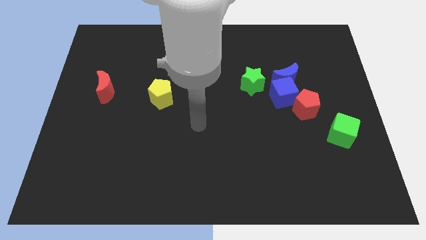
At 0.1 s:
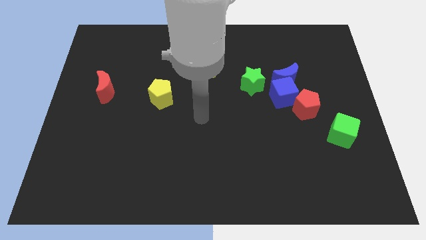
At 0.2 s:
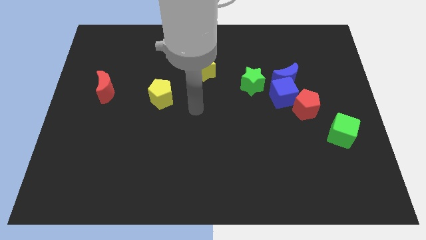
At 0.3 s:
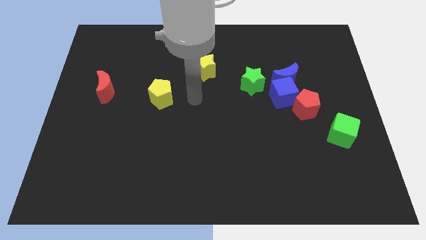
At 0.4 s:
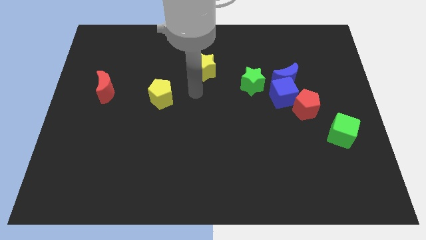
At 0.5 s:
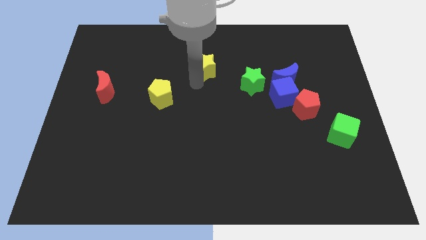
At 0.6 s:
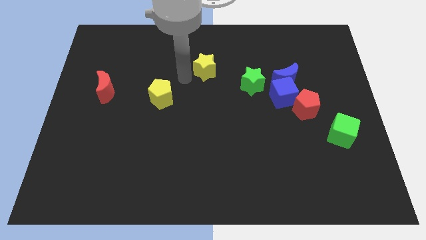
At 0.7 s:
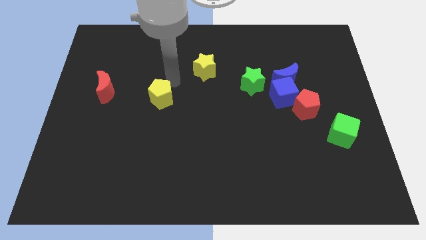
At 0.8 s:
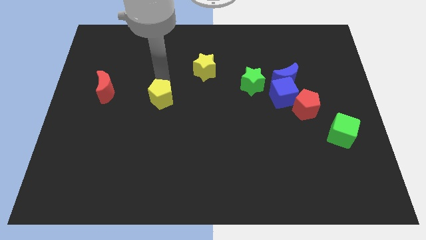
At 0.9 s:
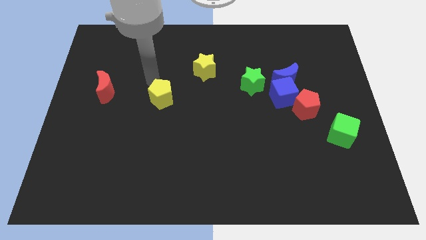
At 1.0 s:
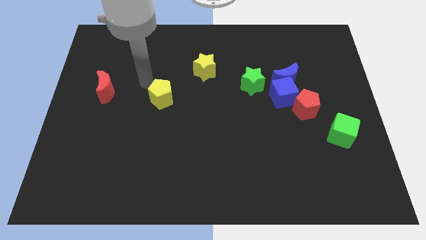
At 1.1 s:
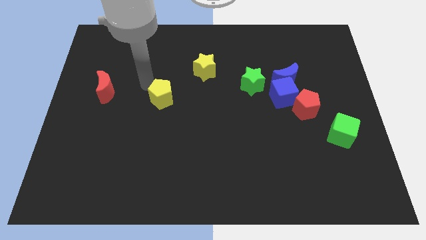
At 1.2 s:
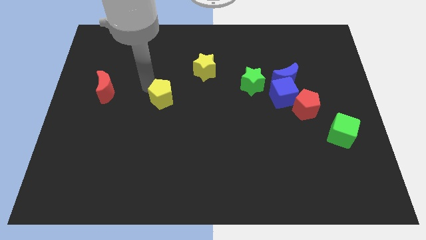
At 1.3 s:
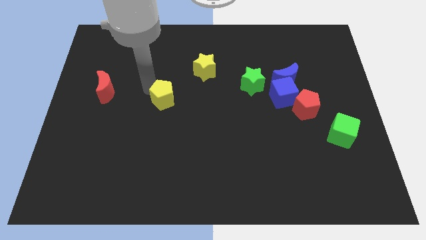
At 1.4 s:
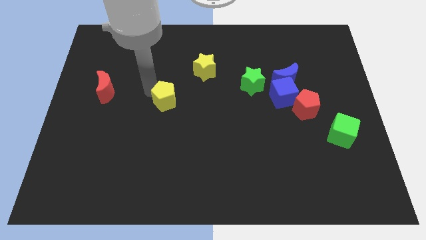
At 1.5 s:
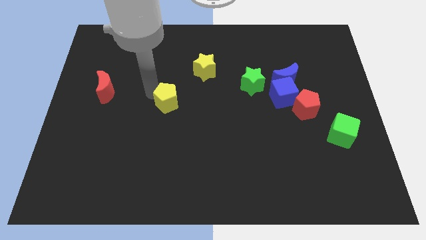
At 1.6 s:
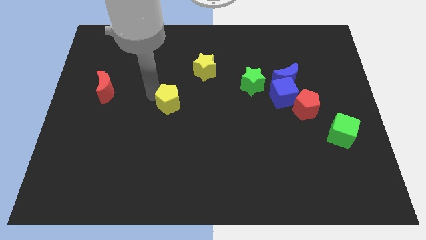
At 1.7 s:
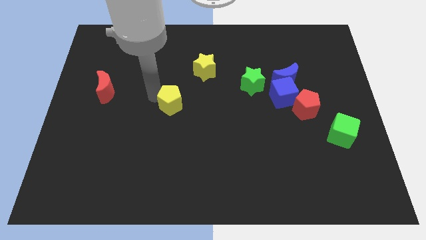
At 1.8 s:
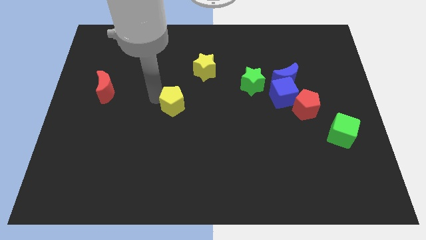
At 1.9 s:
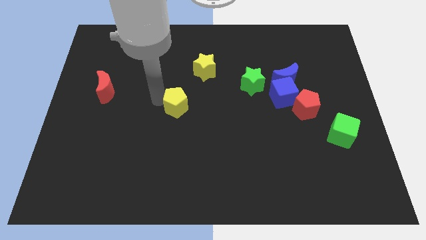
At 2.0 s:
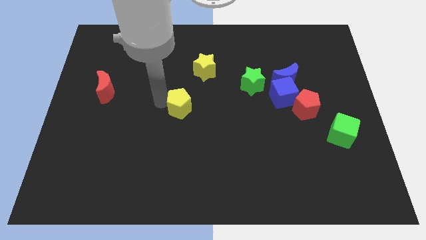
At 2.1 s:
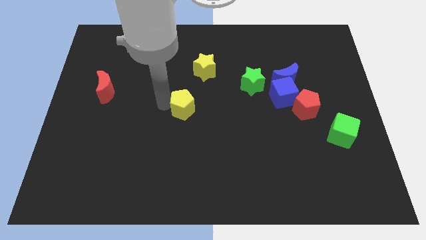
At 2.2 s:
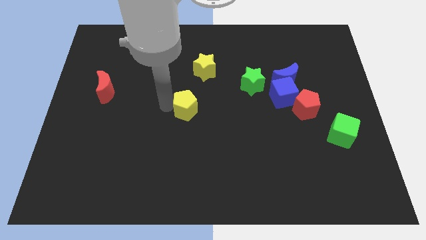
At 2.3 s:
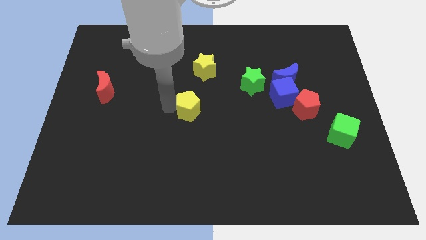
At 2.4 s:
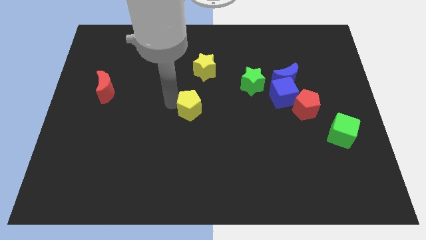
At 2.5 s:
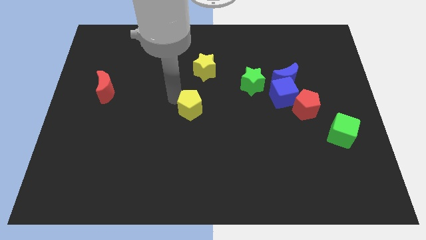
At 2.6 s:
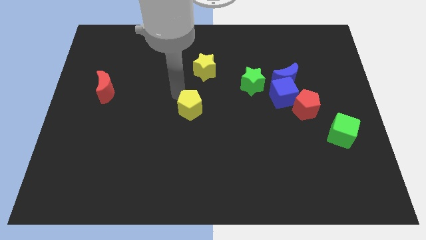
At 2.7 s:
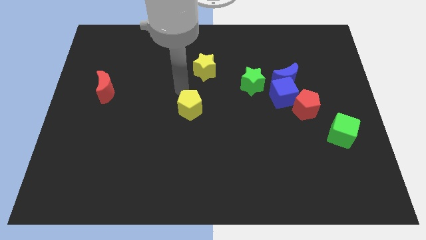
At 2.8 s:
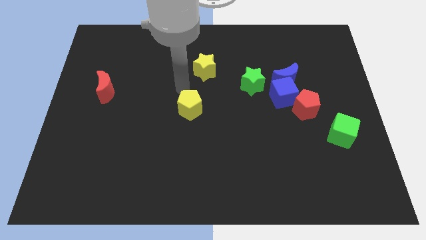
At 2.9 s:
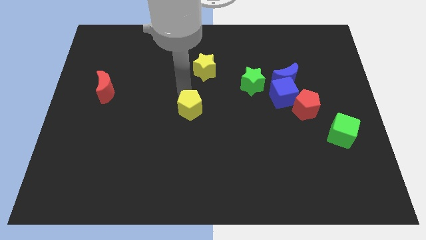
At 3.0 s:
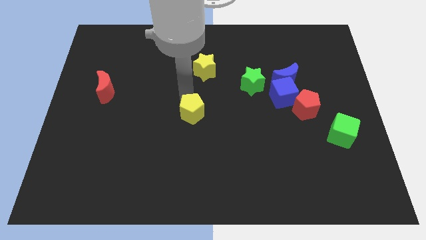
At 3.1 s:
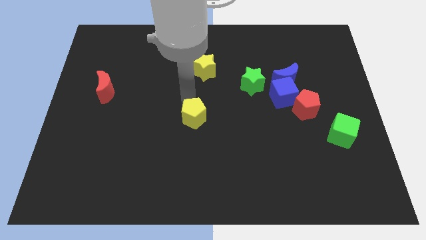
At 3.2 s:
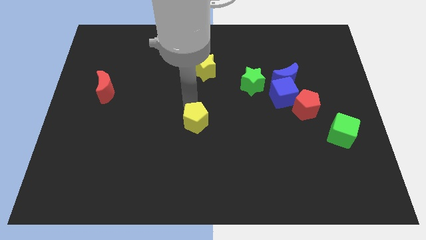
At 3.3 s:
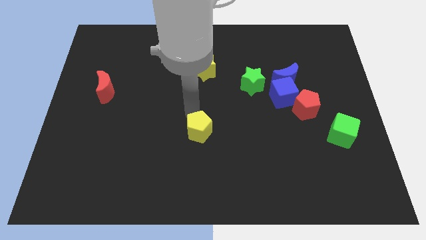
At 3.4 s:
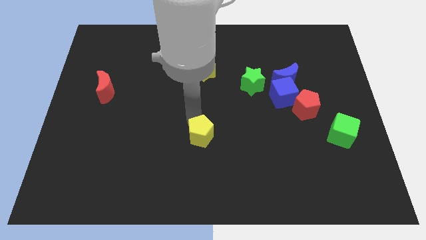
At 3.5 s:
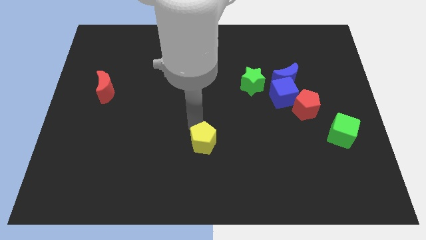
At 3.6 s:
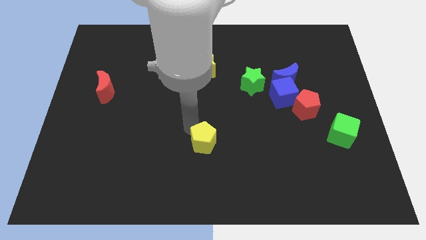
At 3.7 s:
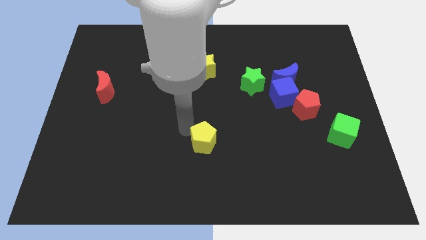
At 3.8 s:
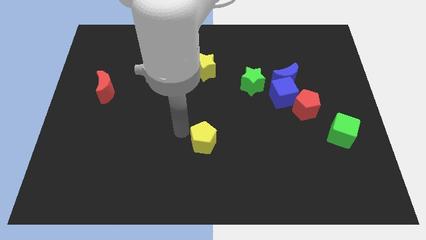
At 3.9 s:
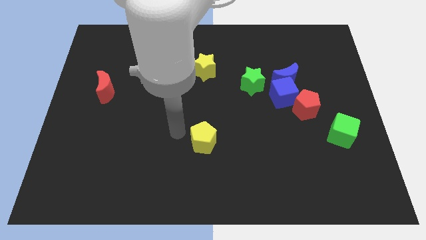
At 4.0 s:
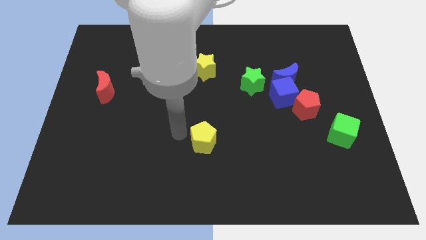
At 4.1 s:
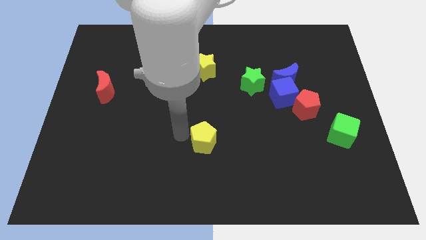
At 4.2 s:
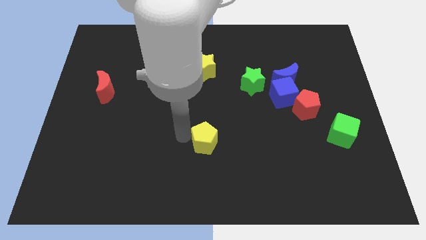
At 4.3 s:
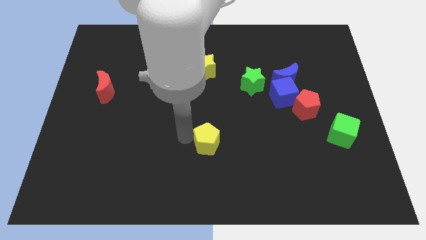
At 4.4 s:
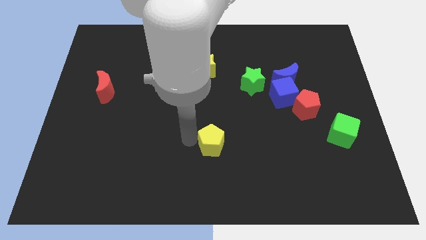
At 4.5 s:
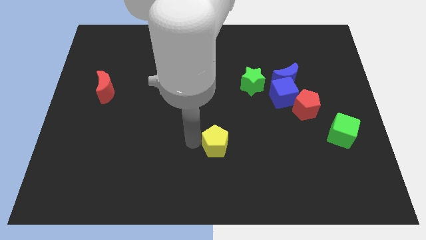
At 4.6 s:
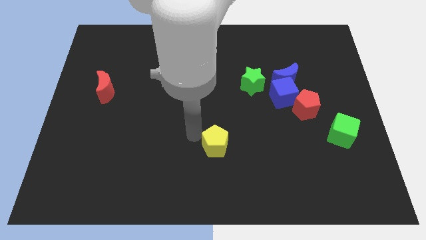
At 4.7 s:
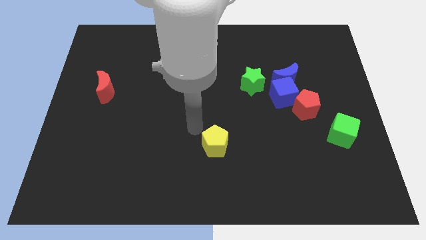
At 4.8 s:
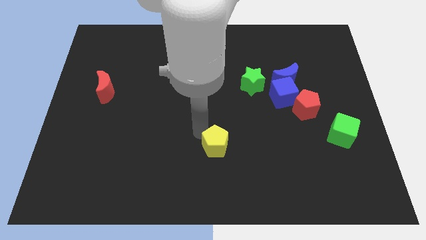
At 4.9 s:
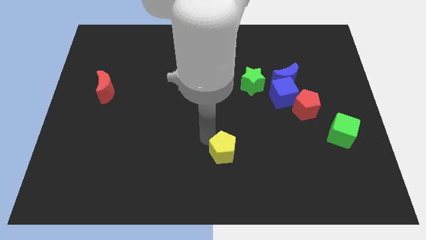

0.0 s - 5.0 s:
slide the yellow pentagon downwards and then to the right

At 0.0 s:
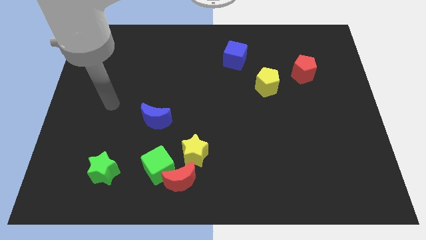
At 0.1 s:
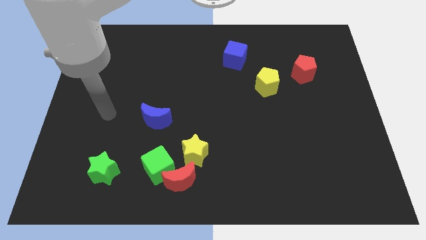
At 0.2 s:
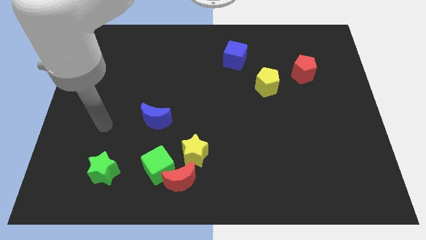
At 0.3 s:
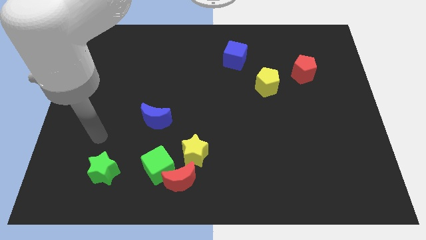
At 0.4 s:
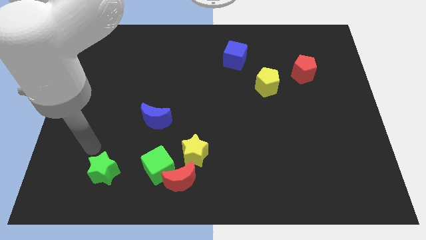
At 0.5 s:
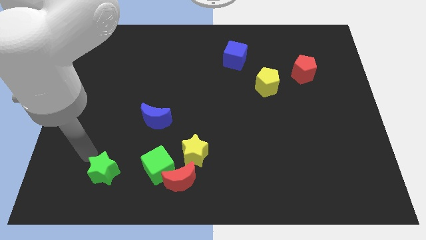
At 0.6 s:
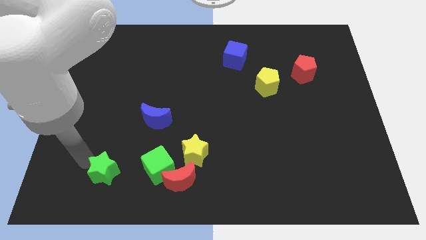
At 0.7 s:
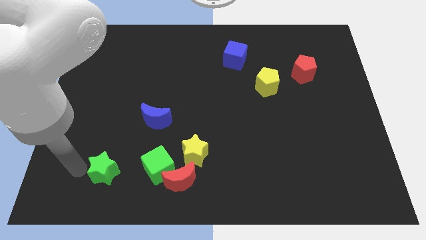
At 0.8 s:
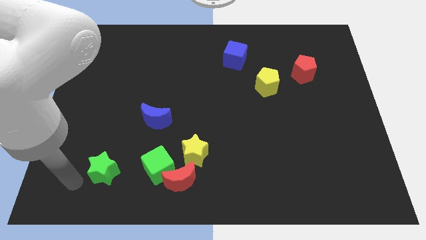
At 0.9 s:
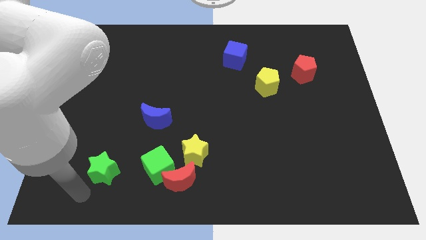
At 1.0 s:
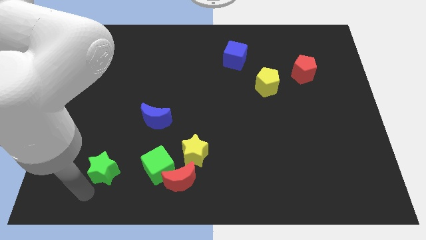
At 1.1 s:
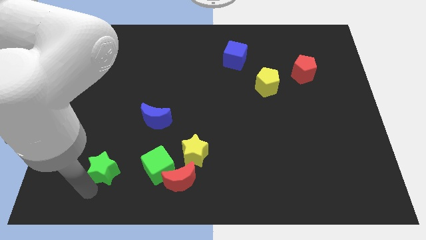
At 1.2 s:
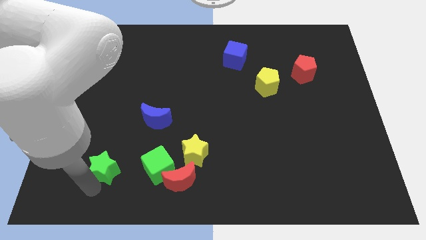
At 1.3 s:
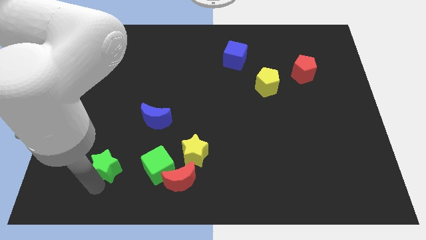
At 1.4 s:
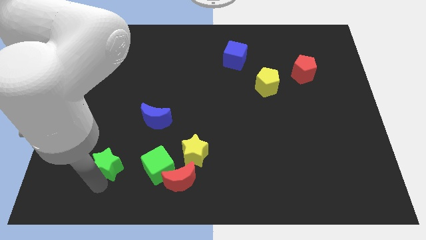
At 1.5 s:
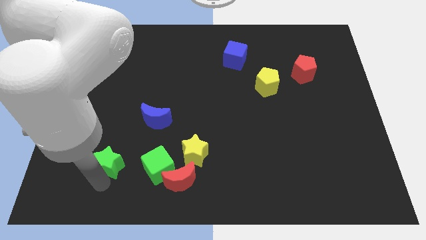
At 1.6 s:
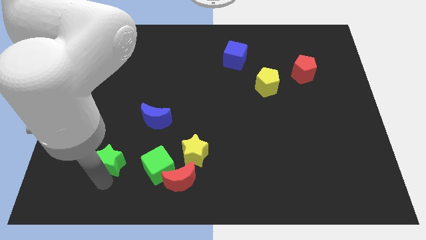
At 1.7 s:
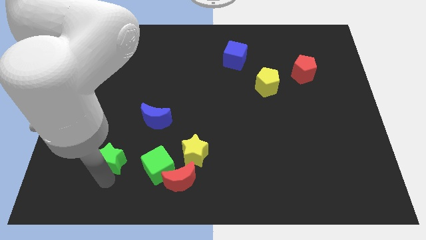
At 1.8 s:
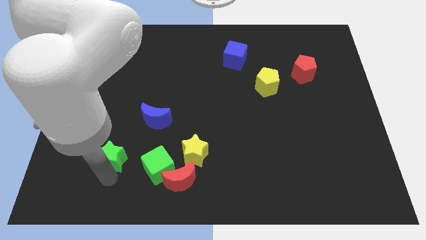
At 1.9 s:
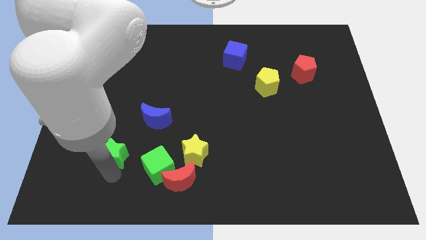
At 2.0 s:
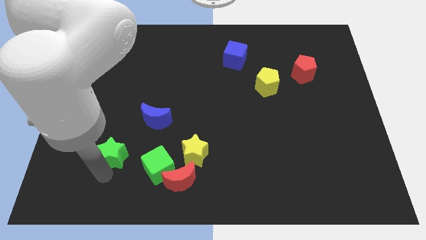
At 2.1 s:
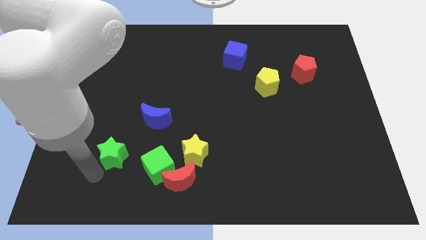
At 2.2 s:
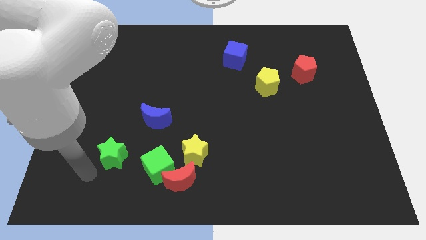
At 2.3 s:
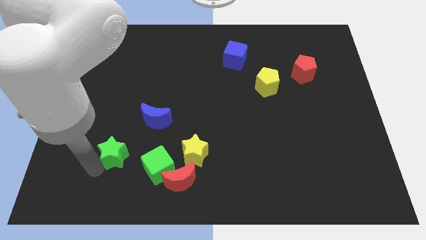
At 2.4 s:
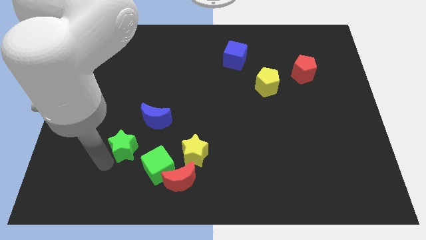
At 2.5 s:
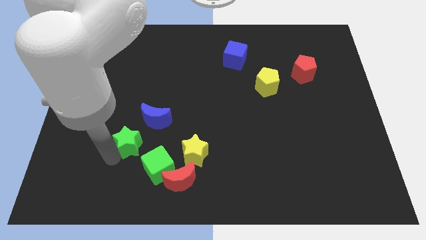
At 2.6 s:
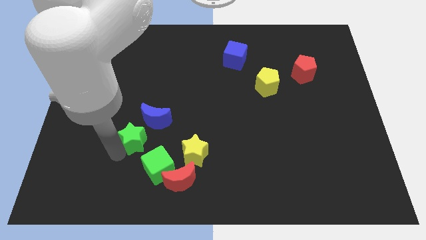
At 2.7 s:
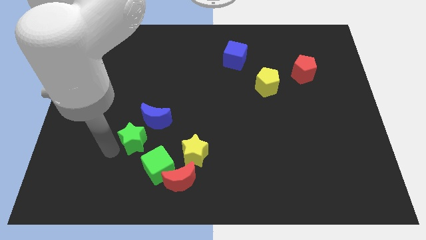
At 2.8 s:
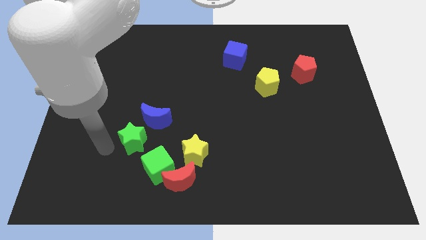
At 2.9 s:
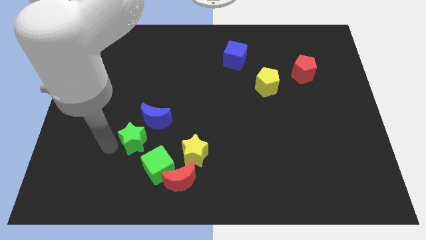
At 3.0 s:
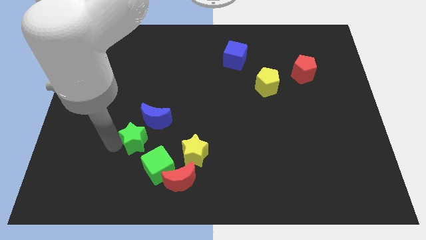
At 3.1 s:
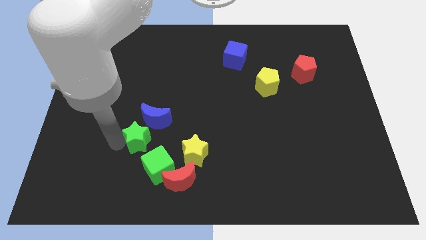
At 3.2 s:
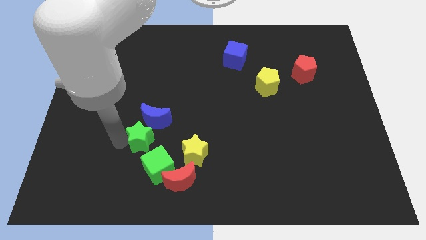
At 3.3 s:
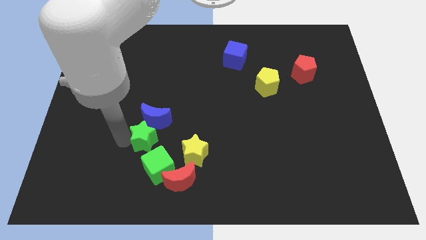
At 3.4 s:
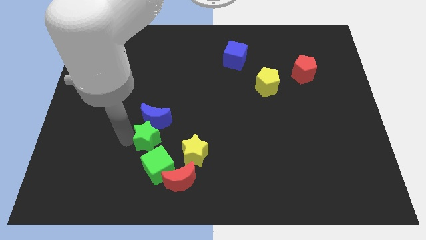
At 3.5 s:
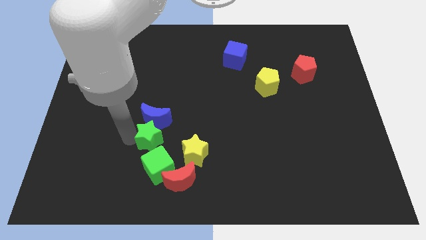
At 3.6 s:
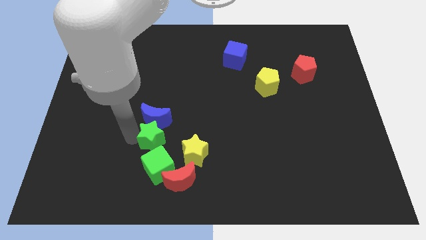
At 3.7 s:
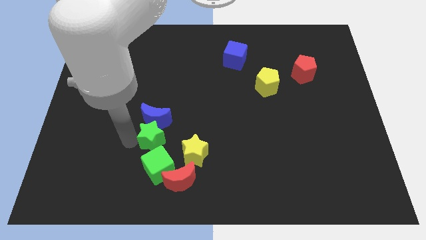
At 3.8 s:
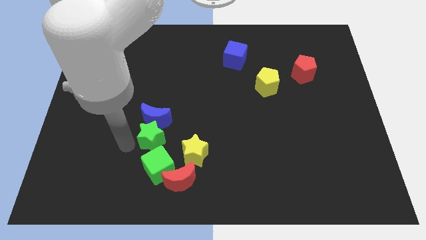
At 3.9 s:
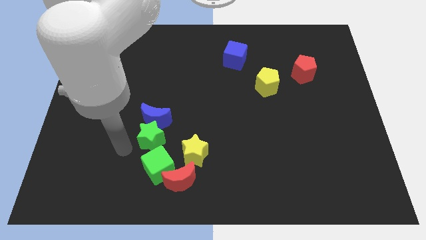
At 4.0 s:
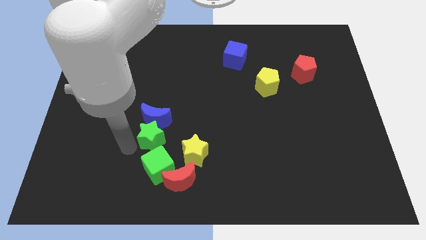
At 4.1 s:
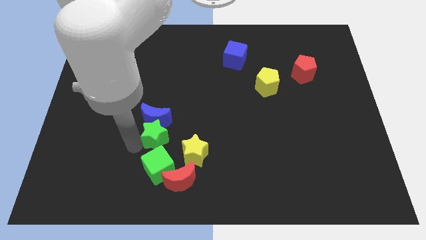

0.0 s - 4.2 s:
push the green star to the right a bit
